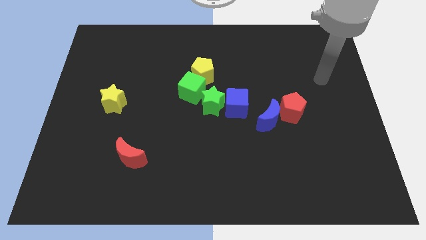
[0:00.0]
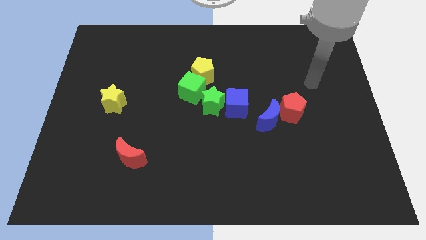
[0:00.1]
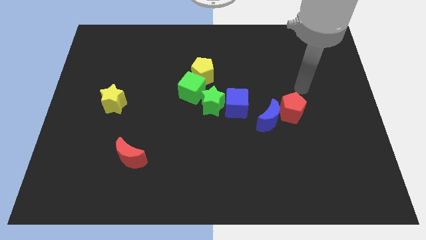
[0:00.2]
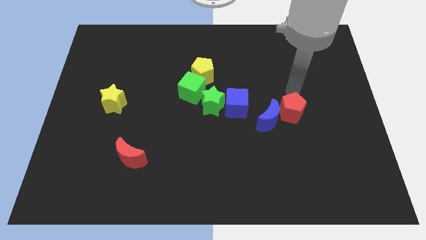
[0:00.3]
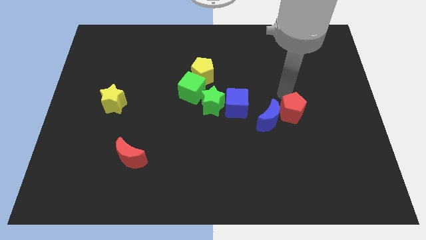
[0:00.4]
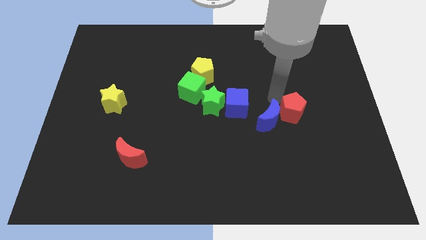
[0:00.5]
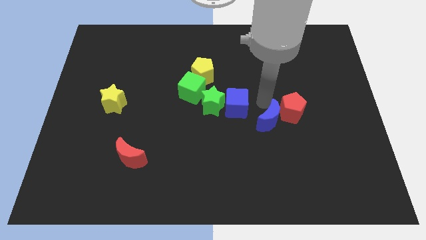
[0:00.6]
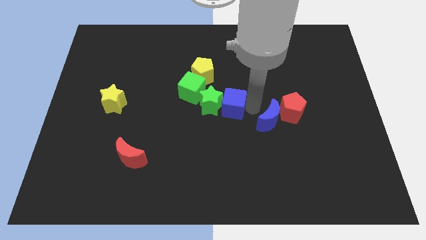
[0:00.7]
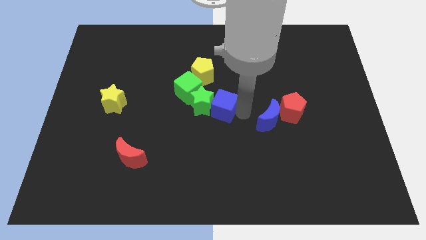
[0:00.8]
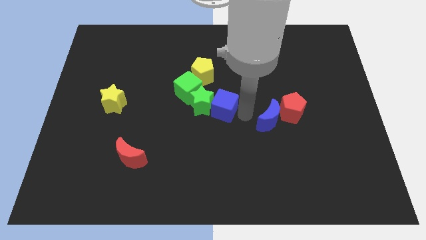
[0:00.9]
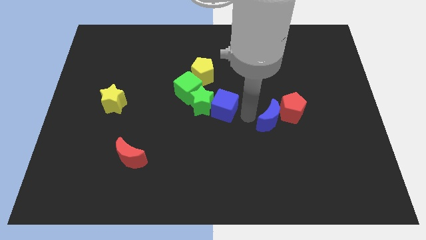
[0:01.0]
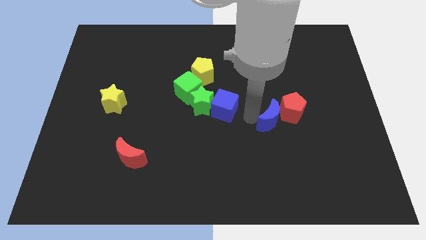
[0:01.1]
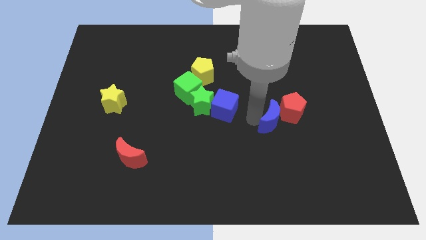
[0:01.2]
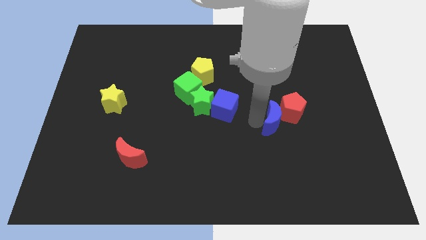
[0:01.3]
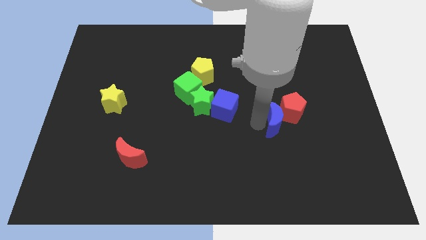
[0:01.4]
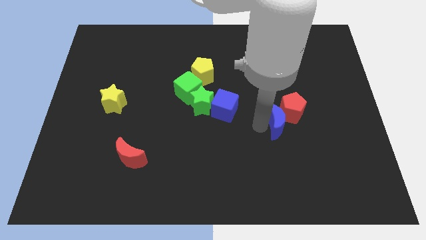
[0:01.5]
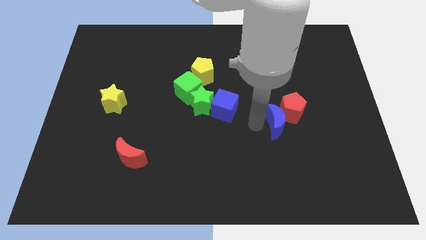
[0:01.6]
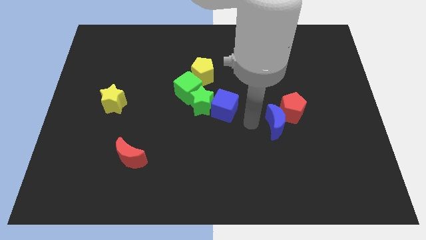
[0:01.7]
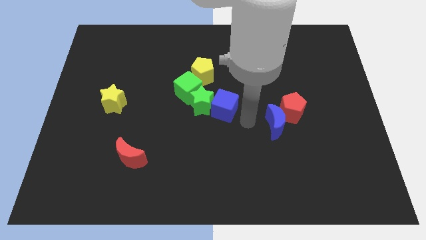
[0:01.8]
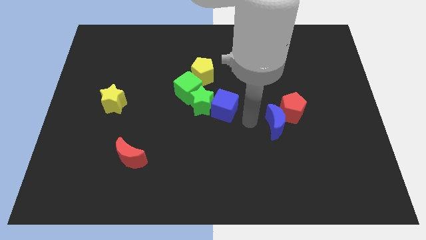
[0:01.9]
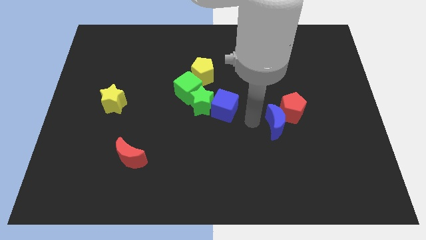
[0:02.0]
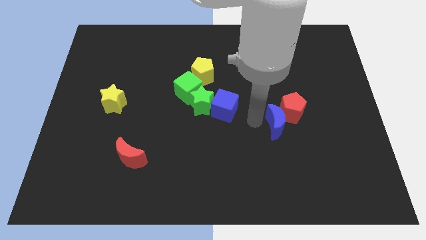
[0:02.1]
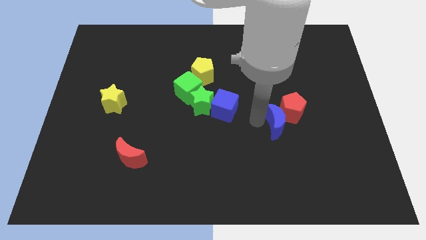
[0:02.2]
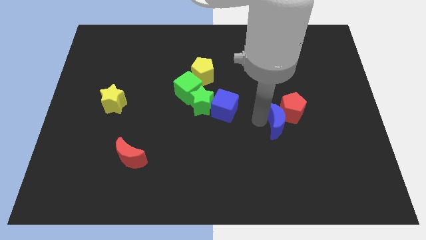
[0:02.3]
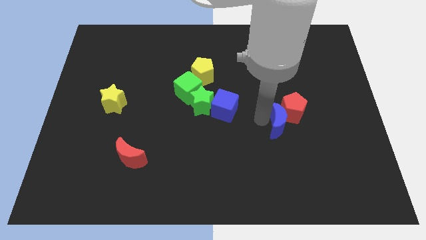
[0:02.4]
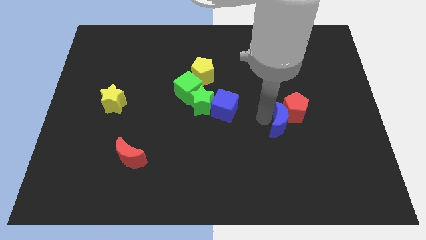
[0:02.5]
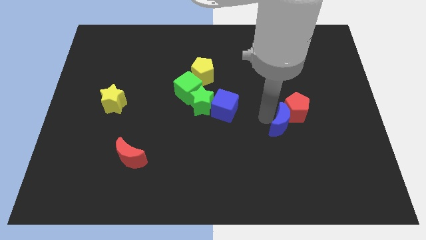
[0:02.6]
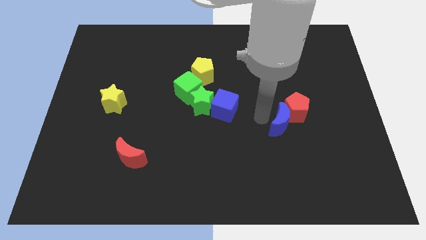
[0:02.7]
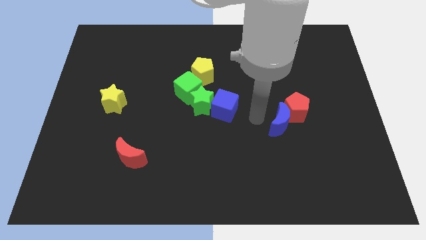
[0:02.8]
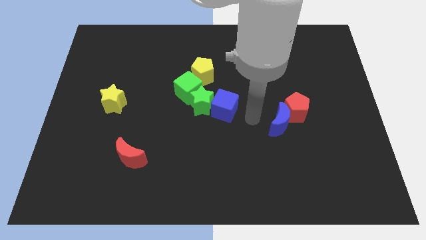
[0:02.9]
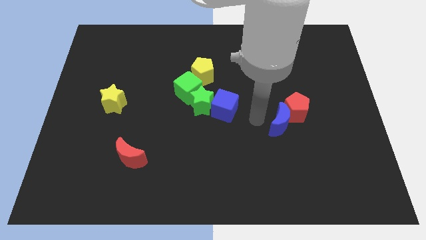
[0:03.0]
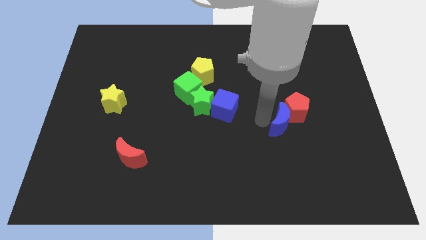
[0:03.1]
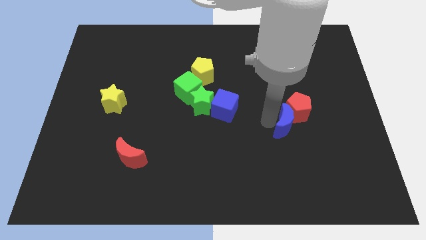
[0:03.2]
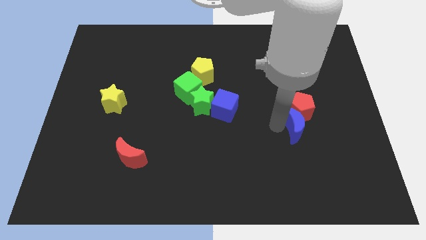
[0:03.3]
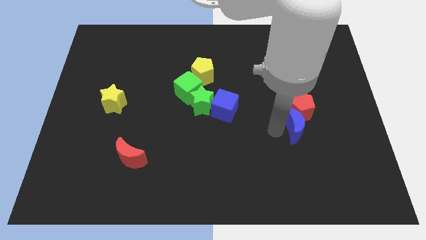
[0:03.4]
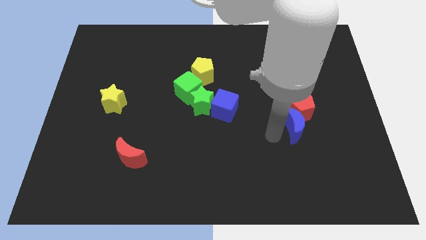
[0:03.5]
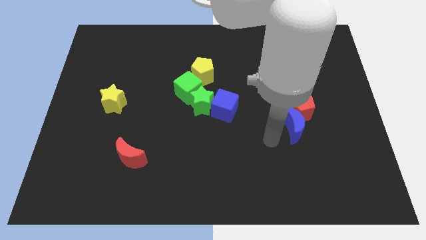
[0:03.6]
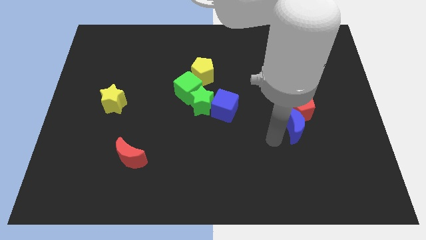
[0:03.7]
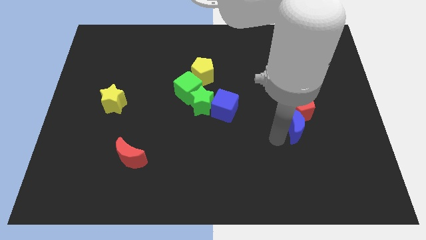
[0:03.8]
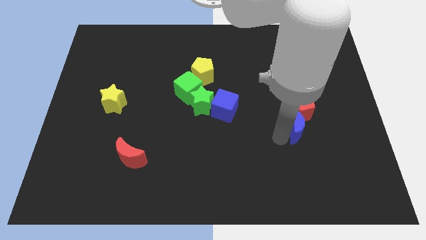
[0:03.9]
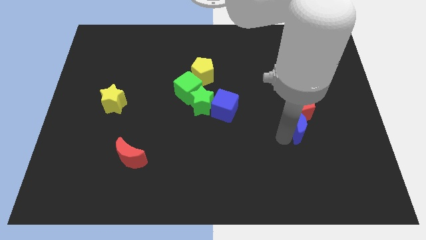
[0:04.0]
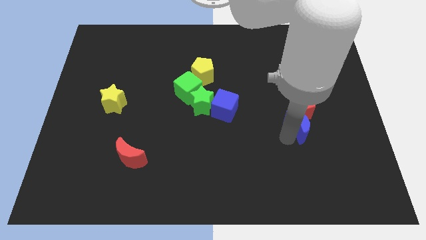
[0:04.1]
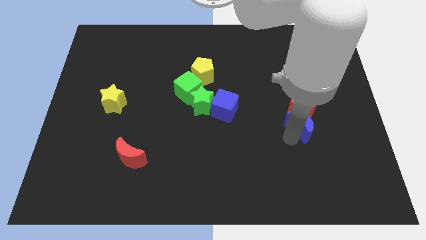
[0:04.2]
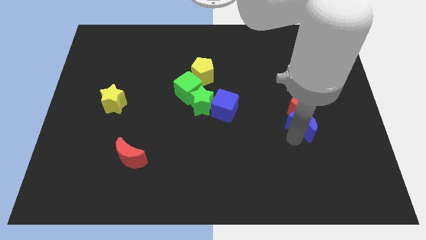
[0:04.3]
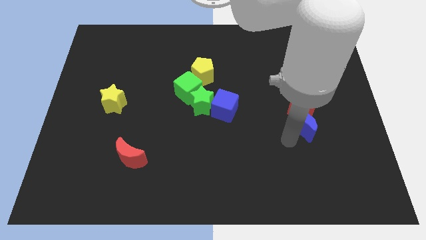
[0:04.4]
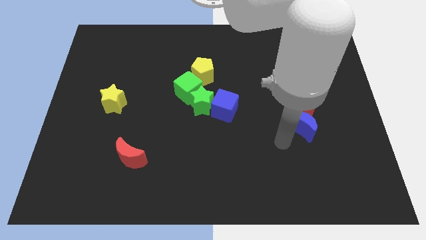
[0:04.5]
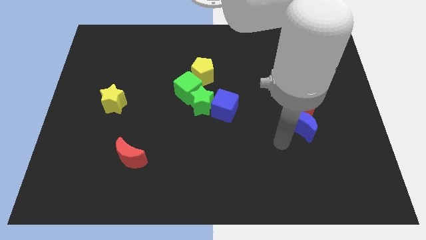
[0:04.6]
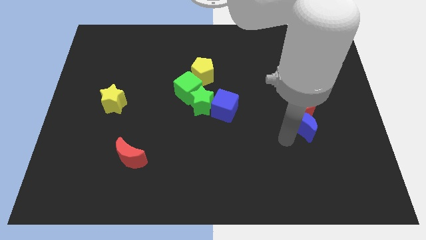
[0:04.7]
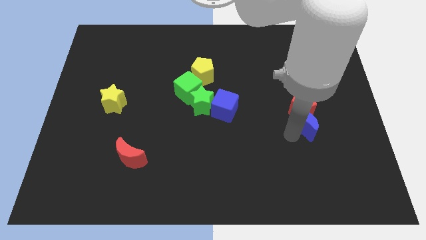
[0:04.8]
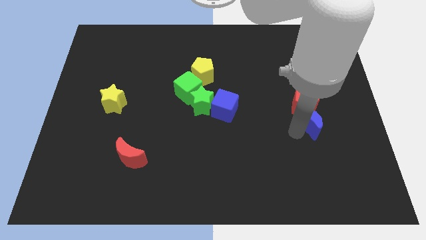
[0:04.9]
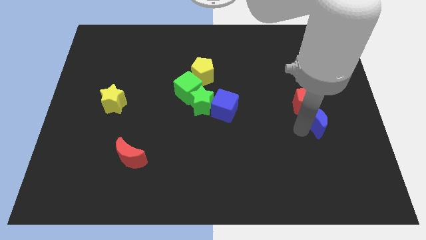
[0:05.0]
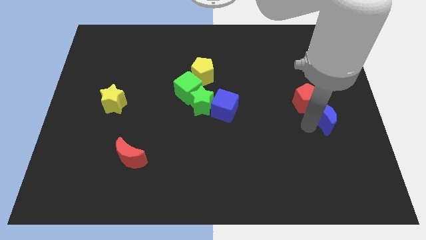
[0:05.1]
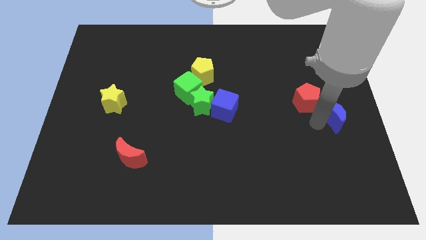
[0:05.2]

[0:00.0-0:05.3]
put the blue moon to the right side of the red pentagon

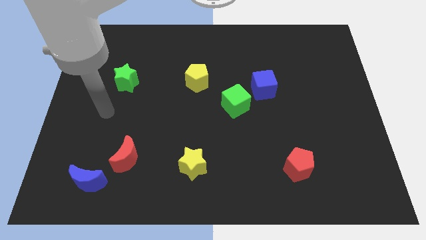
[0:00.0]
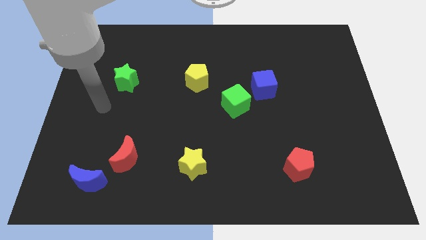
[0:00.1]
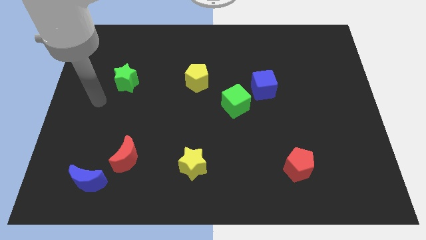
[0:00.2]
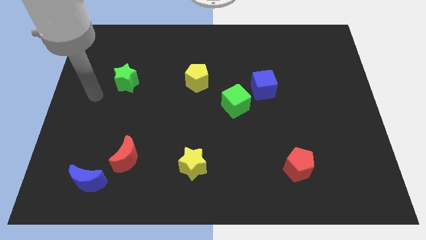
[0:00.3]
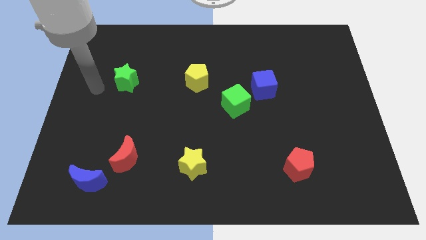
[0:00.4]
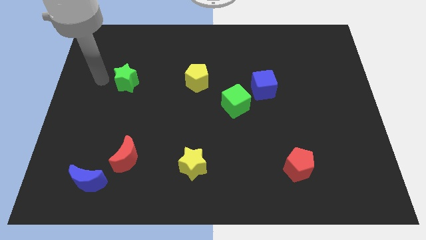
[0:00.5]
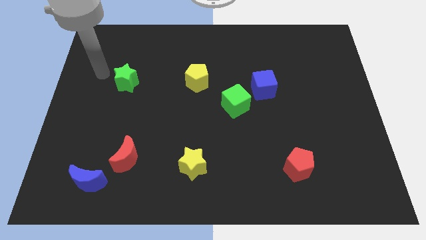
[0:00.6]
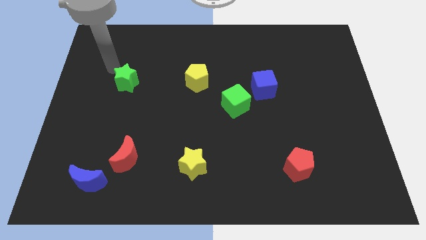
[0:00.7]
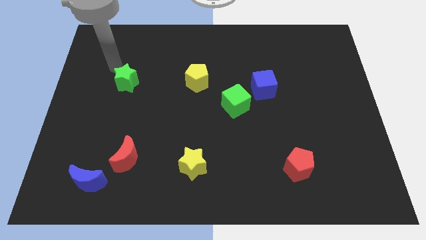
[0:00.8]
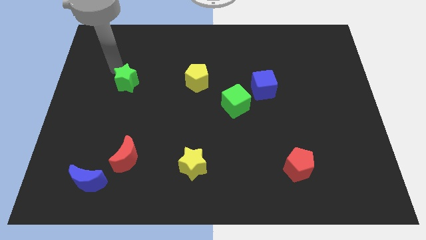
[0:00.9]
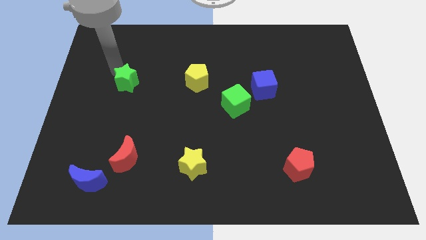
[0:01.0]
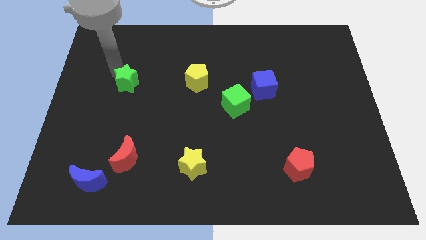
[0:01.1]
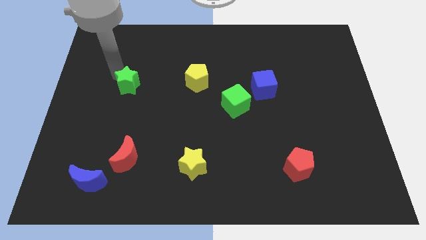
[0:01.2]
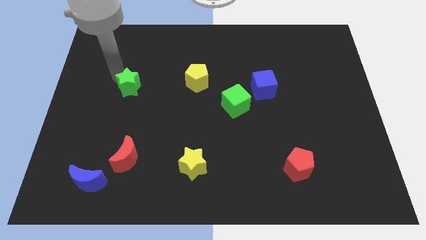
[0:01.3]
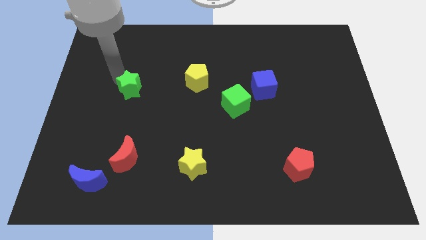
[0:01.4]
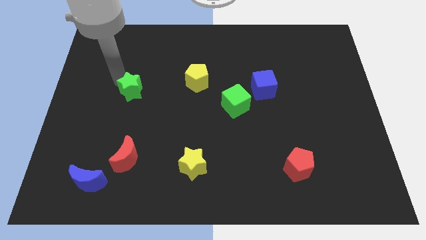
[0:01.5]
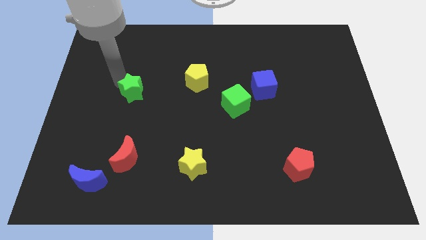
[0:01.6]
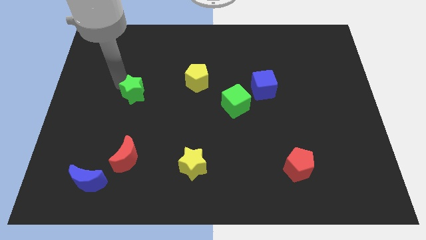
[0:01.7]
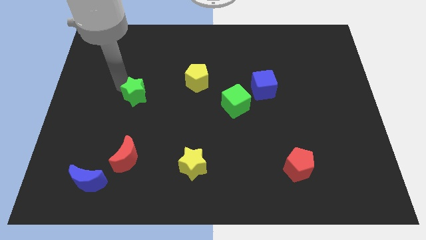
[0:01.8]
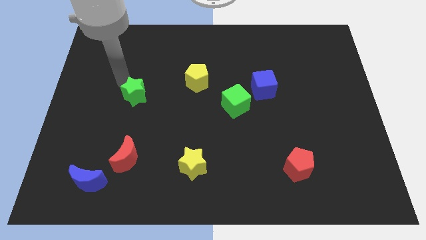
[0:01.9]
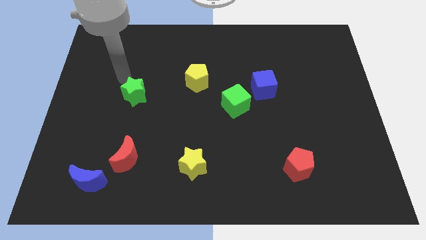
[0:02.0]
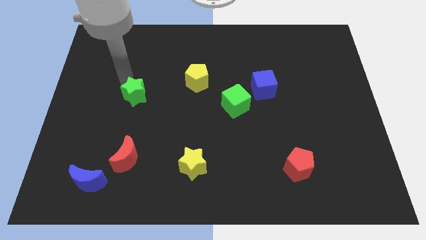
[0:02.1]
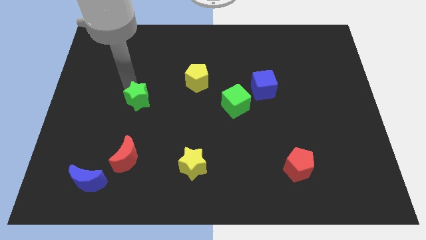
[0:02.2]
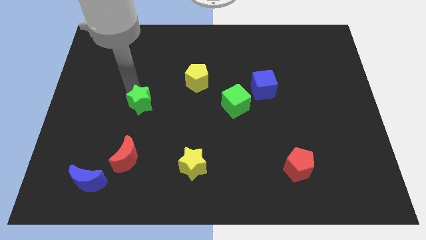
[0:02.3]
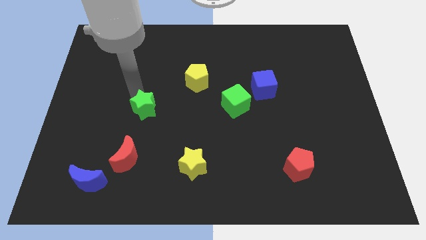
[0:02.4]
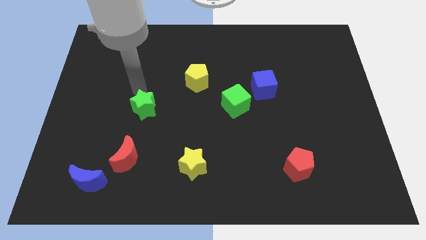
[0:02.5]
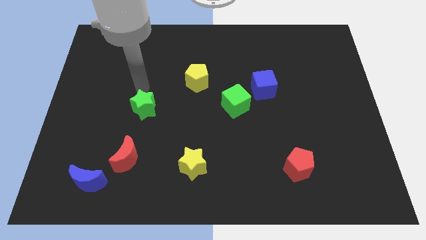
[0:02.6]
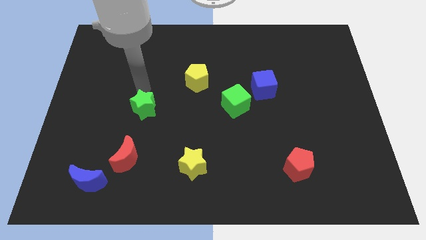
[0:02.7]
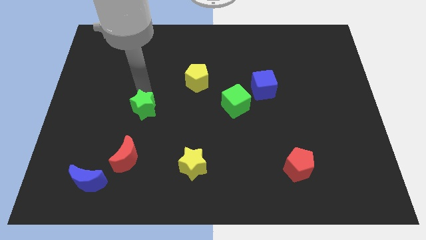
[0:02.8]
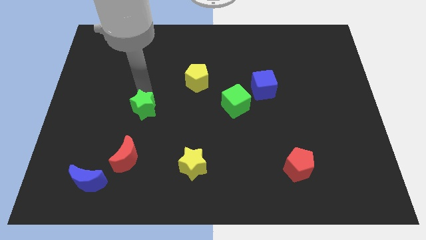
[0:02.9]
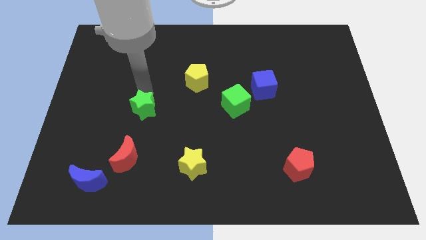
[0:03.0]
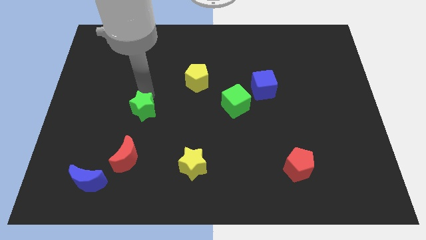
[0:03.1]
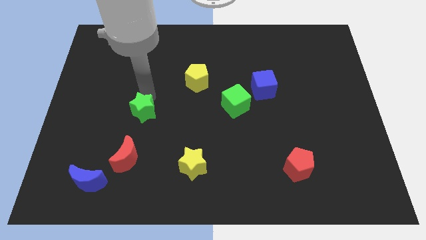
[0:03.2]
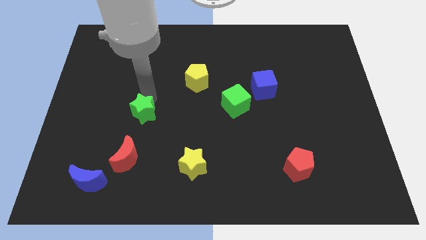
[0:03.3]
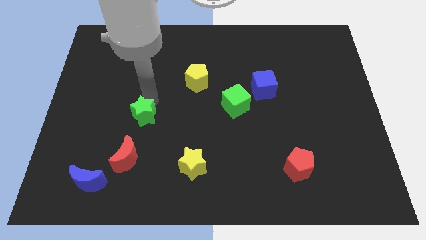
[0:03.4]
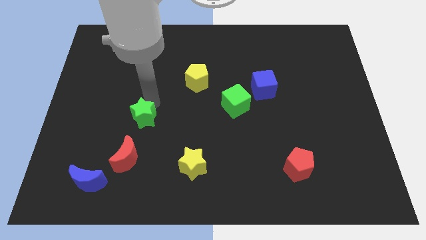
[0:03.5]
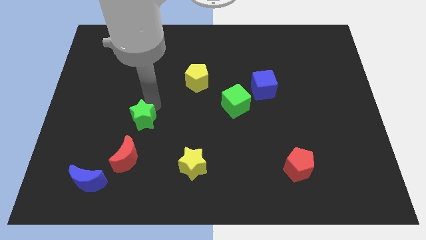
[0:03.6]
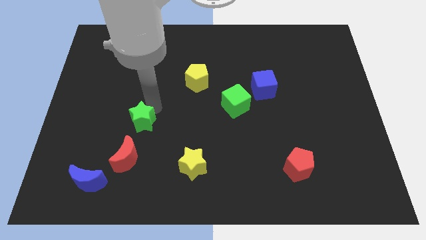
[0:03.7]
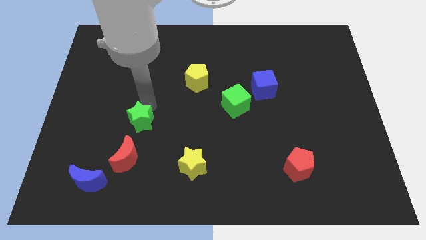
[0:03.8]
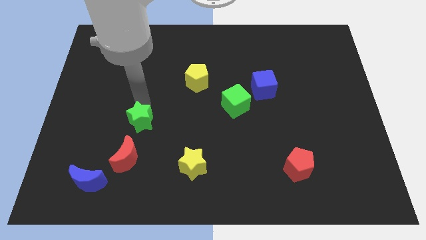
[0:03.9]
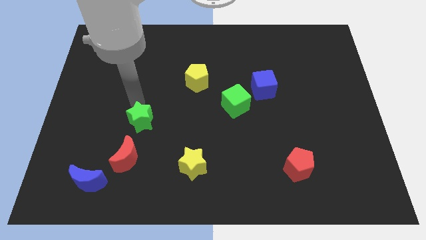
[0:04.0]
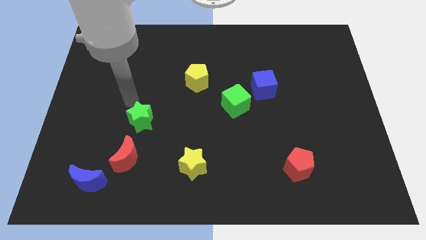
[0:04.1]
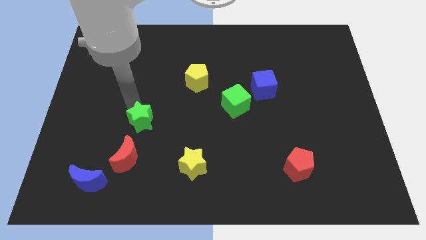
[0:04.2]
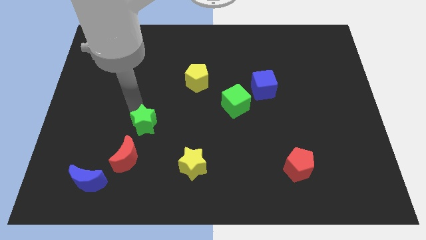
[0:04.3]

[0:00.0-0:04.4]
push the green star to the top right of the red moon
